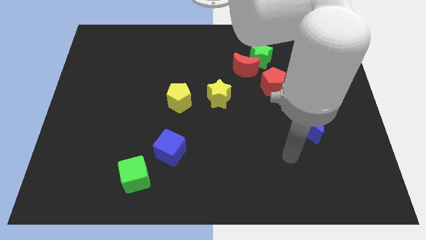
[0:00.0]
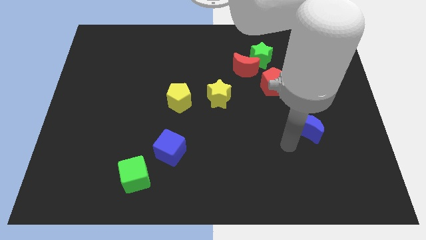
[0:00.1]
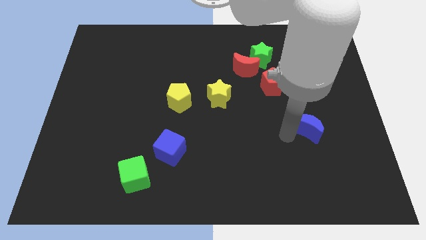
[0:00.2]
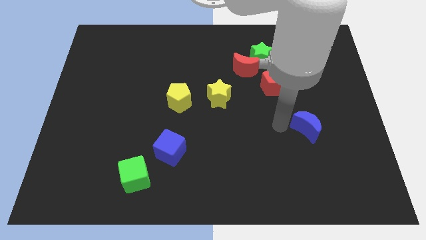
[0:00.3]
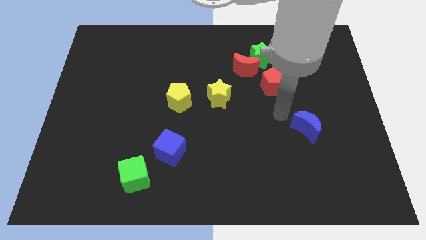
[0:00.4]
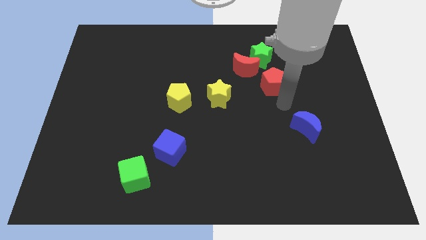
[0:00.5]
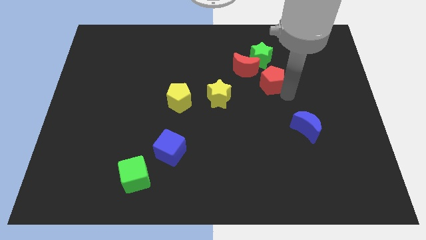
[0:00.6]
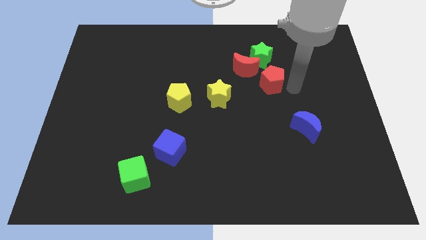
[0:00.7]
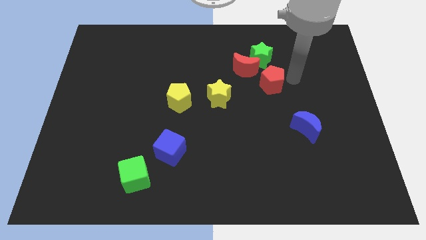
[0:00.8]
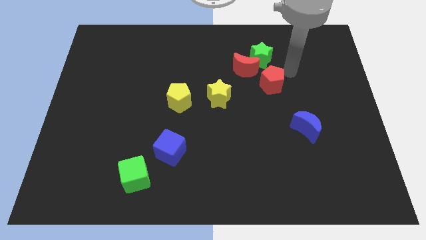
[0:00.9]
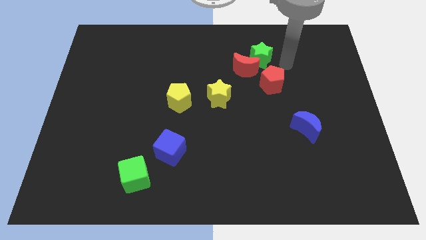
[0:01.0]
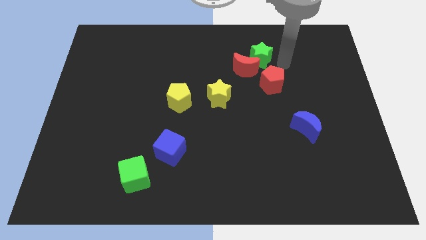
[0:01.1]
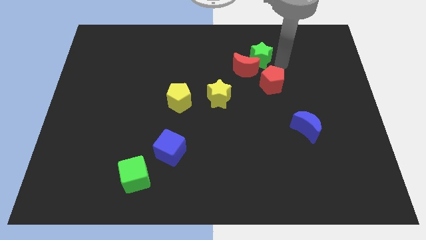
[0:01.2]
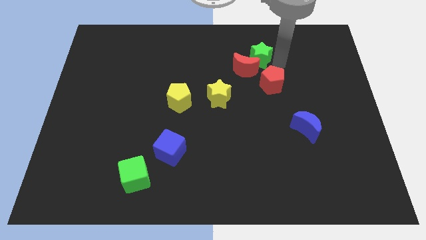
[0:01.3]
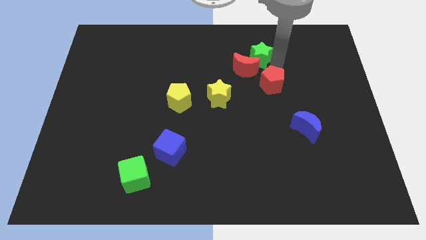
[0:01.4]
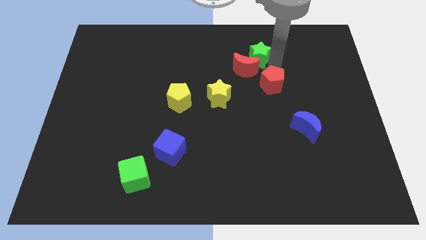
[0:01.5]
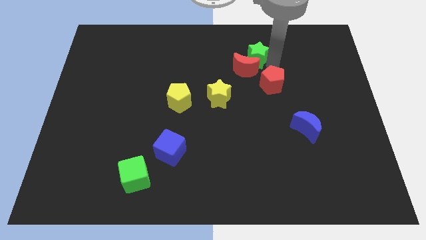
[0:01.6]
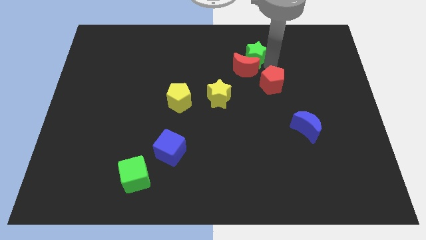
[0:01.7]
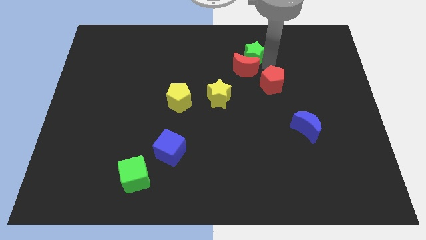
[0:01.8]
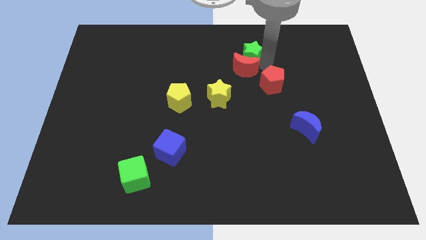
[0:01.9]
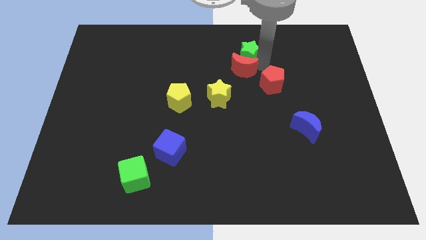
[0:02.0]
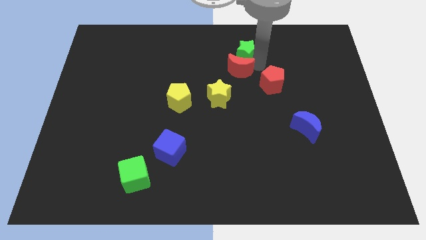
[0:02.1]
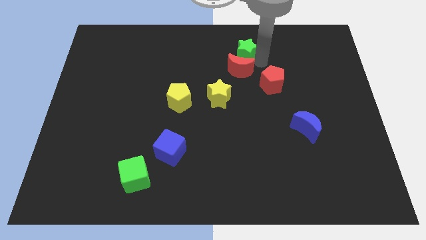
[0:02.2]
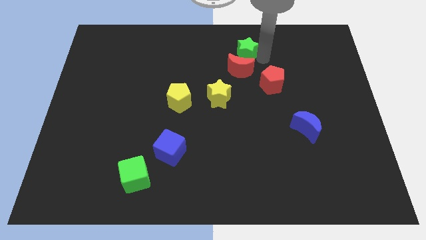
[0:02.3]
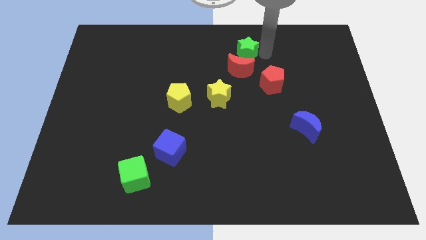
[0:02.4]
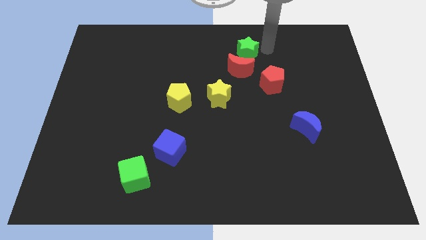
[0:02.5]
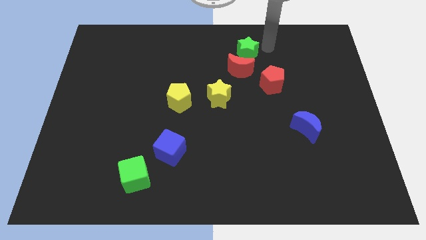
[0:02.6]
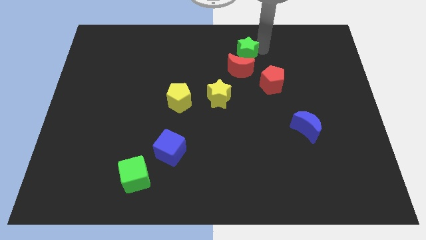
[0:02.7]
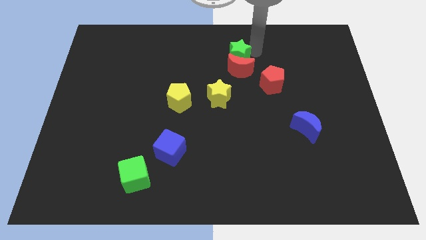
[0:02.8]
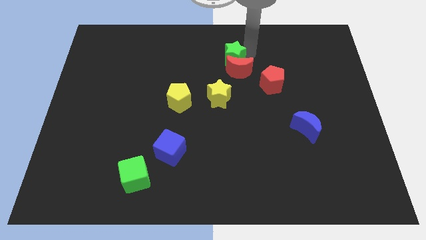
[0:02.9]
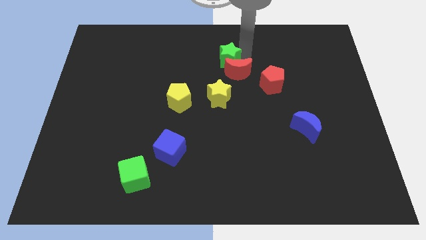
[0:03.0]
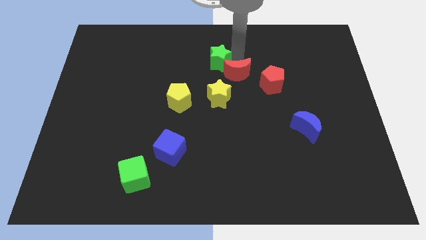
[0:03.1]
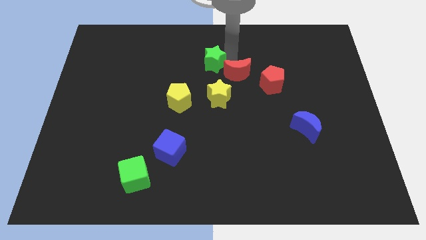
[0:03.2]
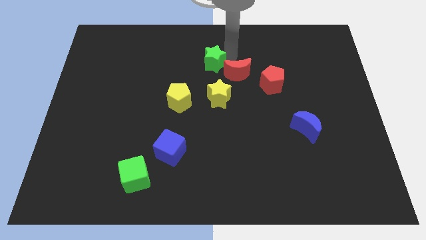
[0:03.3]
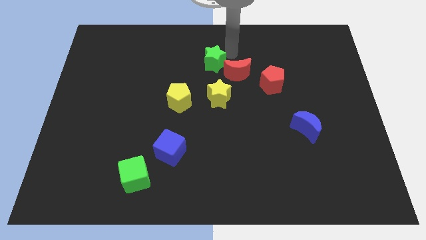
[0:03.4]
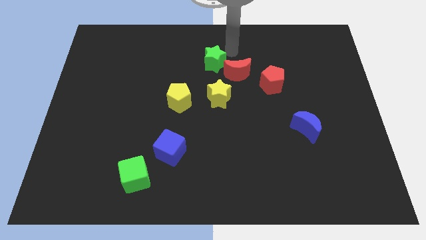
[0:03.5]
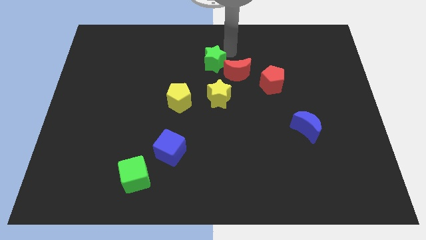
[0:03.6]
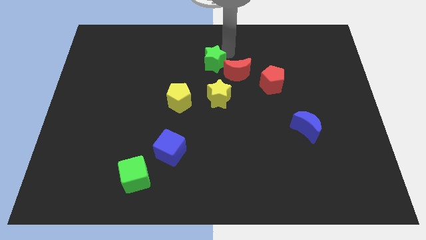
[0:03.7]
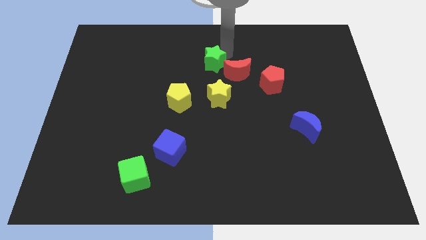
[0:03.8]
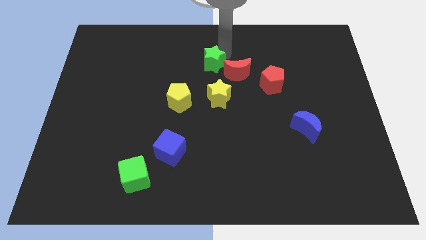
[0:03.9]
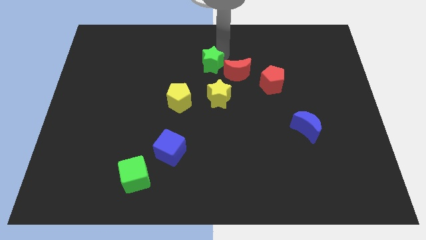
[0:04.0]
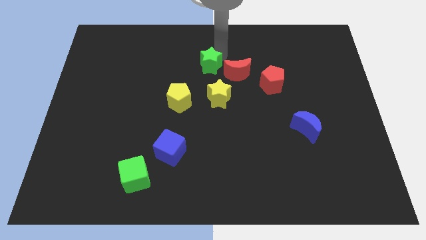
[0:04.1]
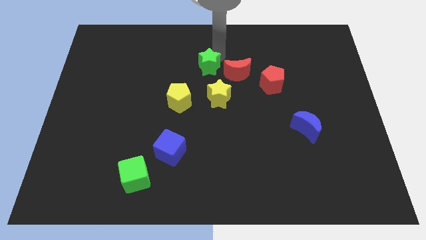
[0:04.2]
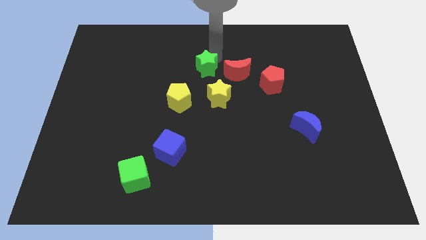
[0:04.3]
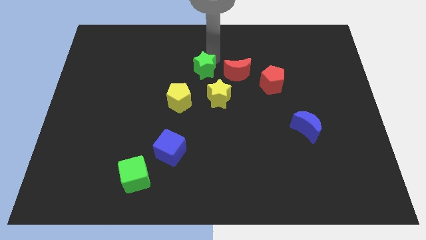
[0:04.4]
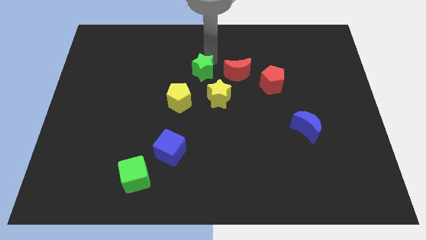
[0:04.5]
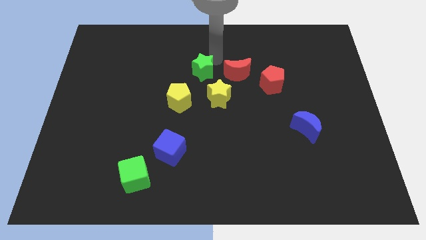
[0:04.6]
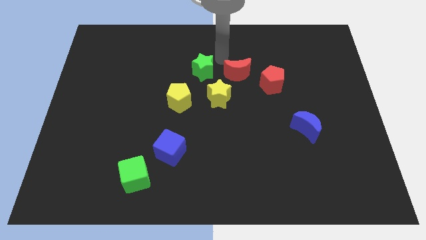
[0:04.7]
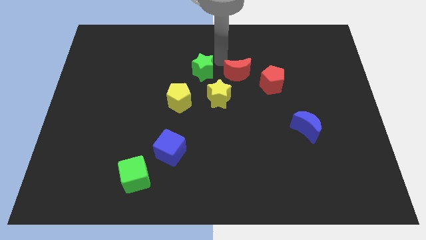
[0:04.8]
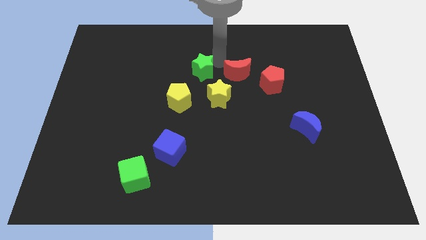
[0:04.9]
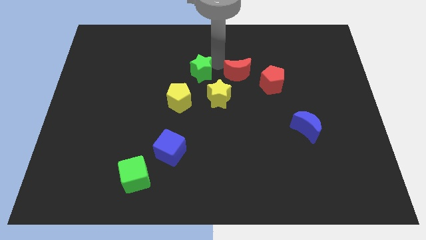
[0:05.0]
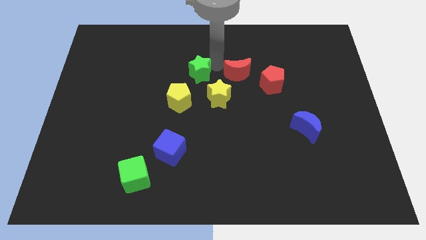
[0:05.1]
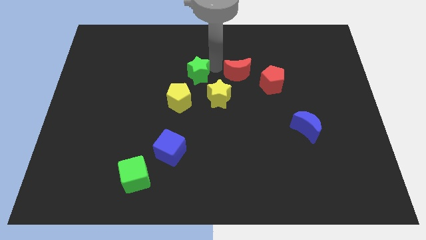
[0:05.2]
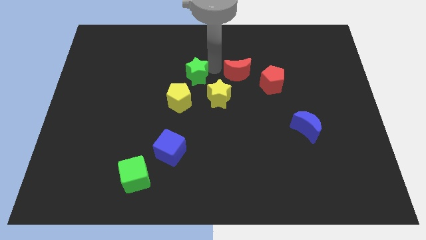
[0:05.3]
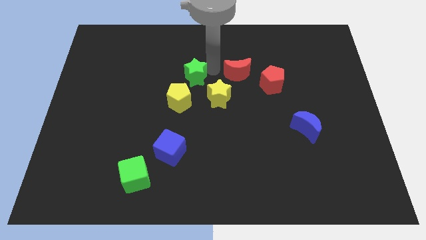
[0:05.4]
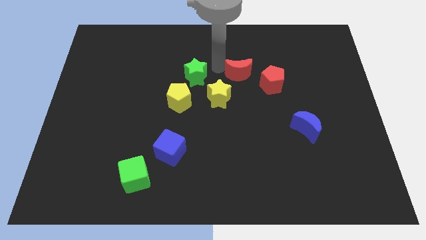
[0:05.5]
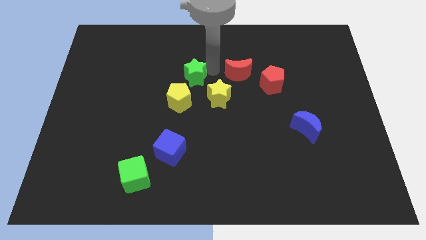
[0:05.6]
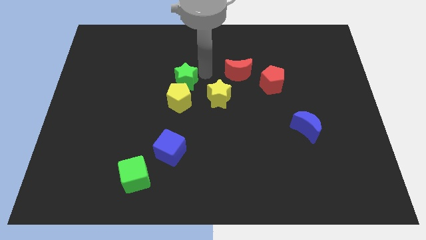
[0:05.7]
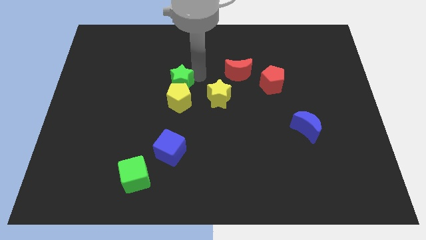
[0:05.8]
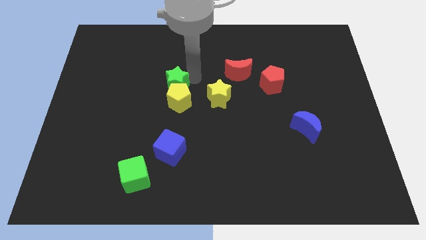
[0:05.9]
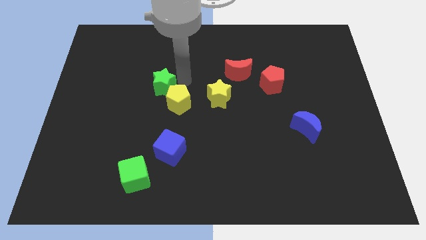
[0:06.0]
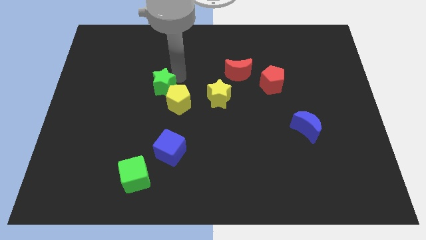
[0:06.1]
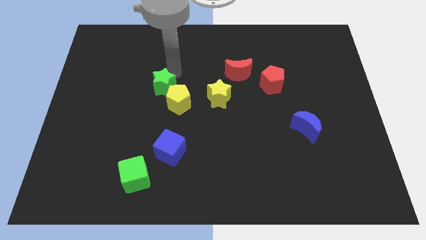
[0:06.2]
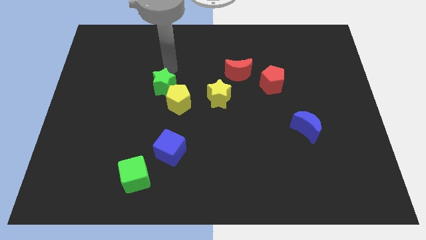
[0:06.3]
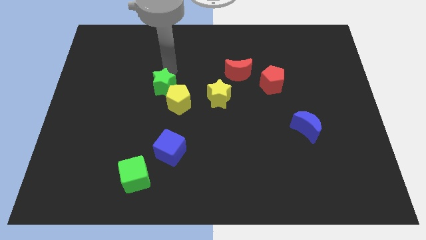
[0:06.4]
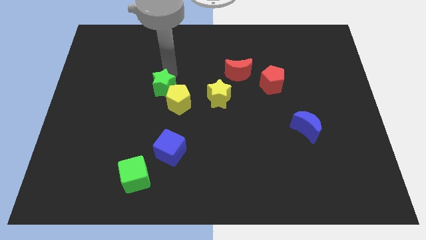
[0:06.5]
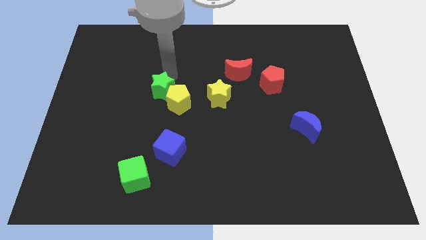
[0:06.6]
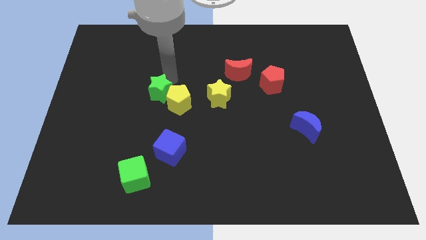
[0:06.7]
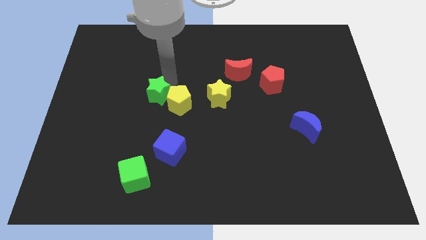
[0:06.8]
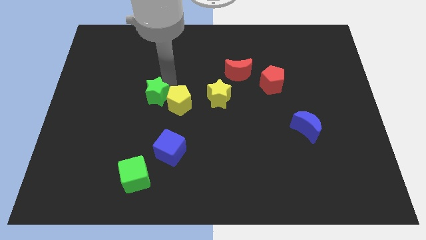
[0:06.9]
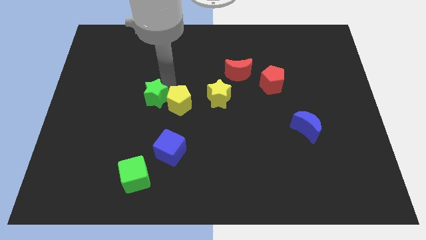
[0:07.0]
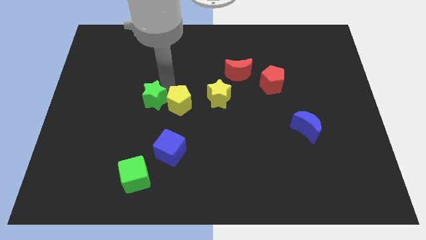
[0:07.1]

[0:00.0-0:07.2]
push the green star diagonally down and to the left of the yellow pentagon
